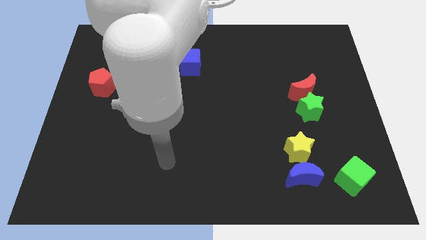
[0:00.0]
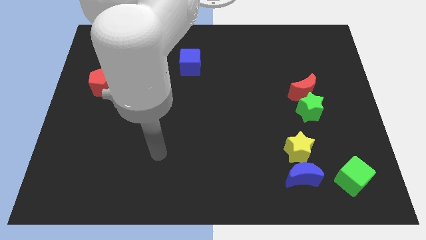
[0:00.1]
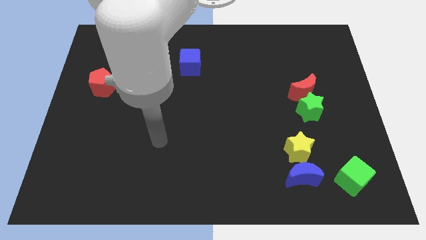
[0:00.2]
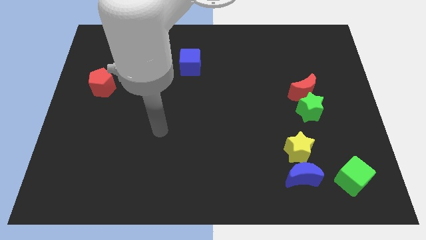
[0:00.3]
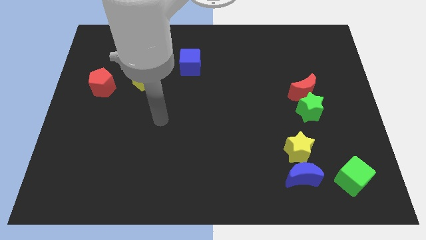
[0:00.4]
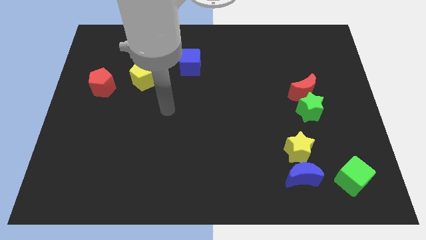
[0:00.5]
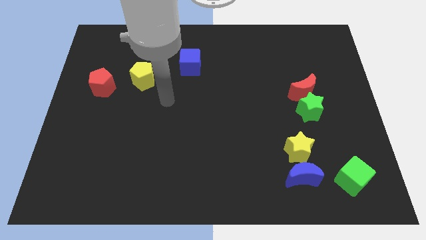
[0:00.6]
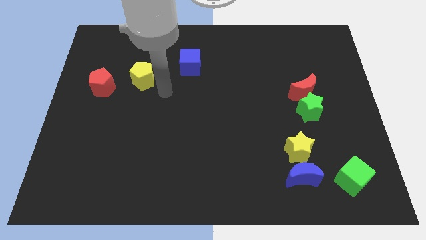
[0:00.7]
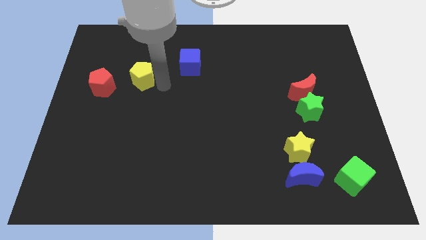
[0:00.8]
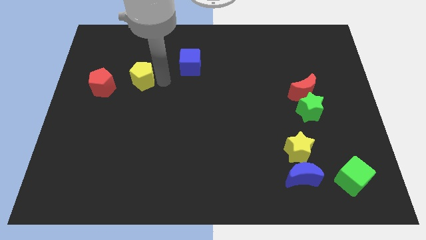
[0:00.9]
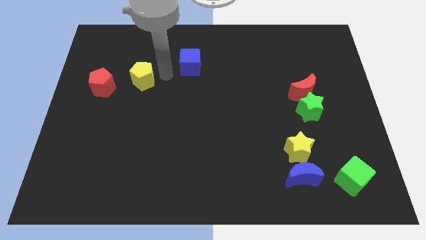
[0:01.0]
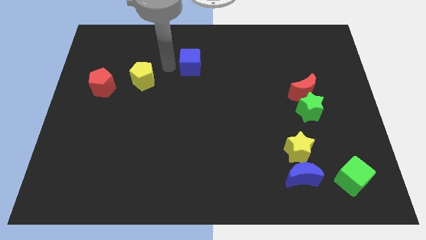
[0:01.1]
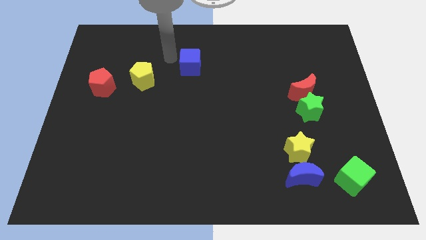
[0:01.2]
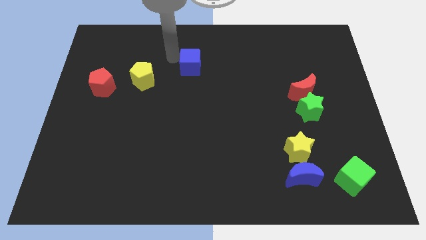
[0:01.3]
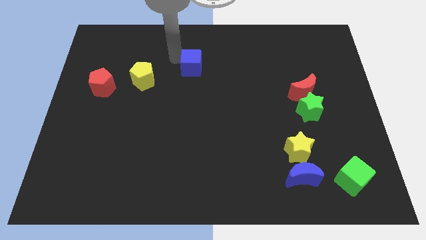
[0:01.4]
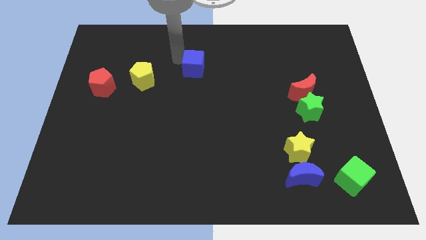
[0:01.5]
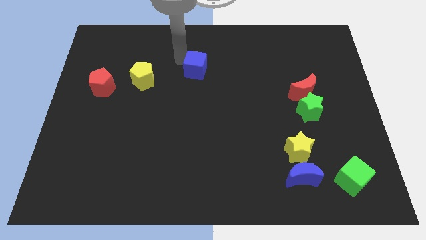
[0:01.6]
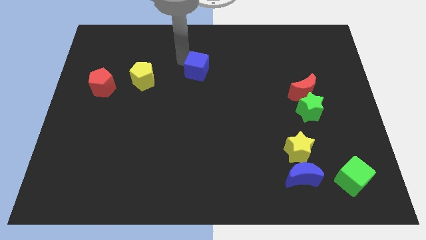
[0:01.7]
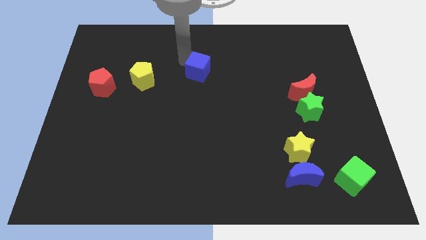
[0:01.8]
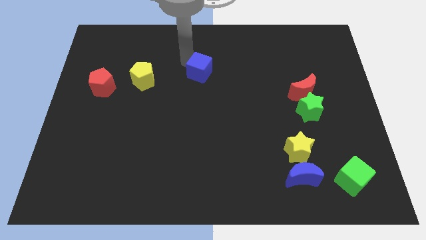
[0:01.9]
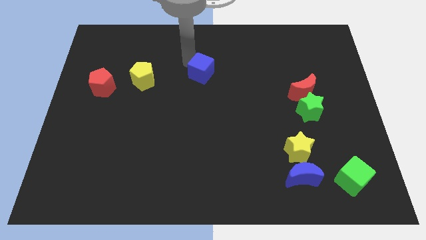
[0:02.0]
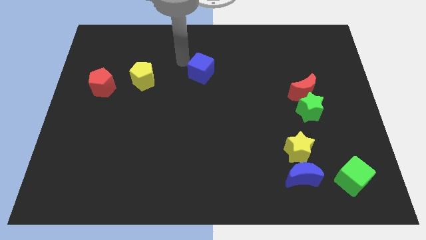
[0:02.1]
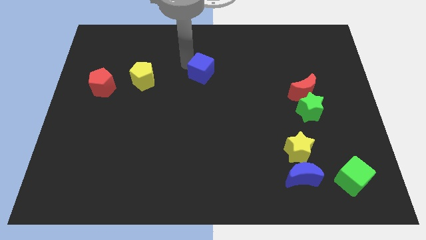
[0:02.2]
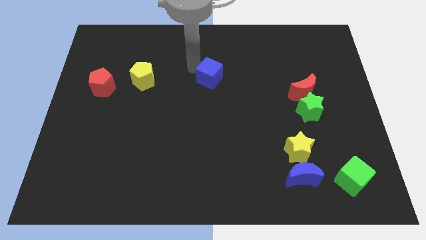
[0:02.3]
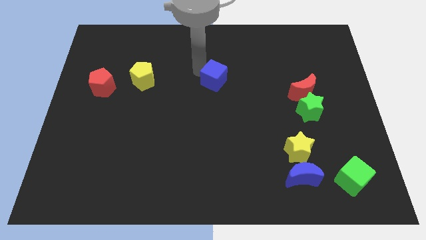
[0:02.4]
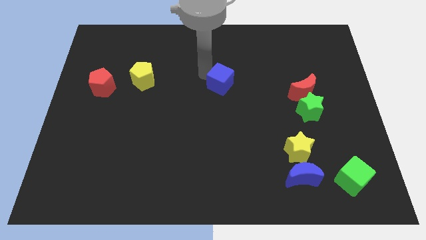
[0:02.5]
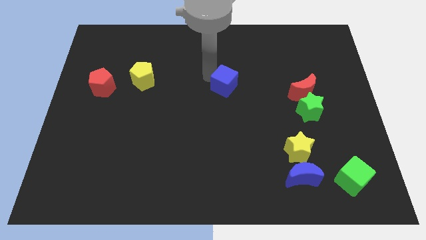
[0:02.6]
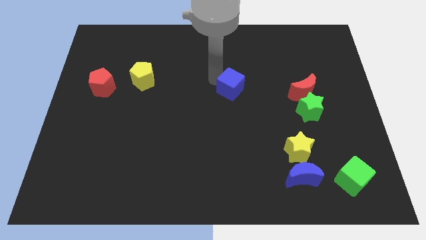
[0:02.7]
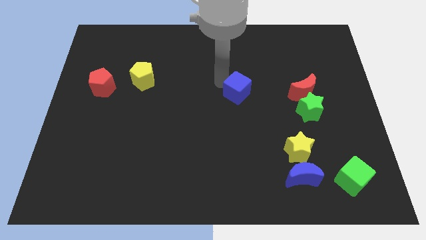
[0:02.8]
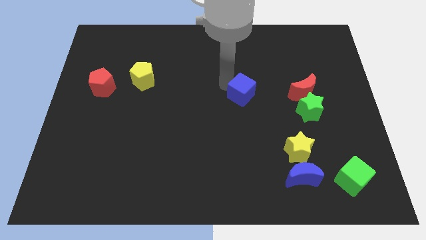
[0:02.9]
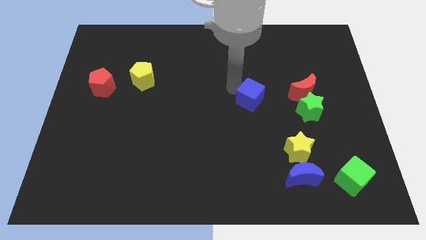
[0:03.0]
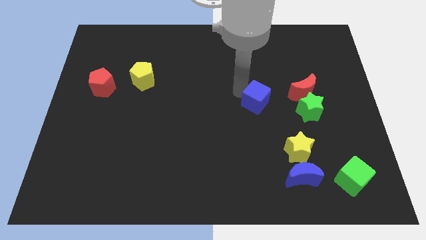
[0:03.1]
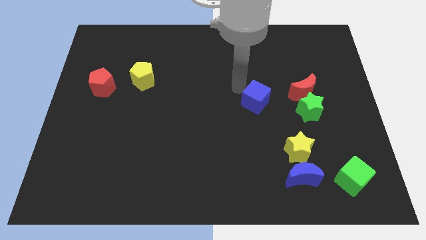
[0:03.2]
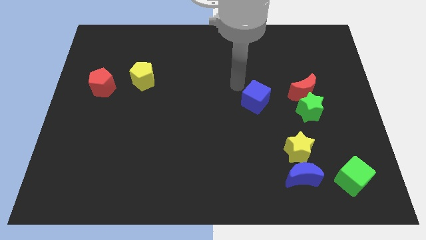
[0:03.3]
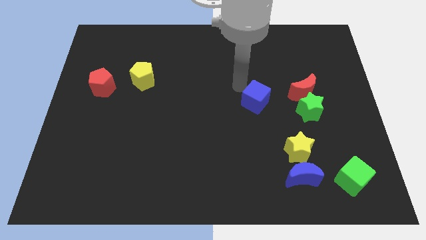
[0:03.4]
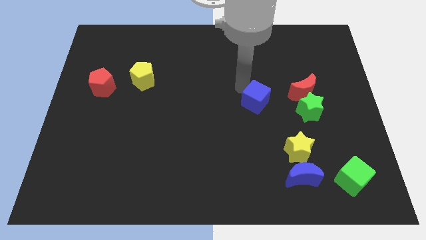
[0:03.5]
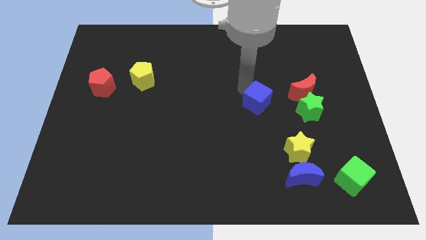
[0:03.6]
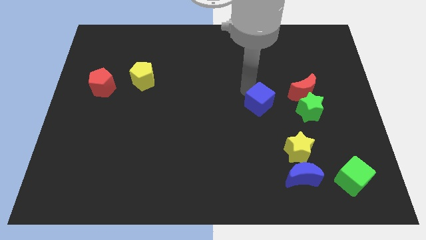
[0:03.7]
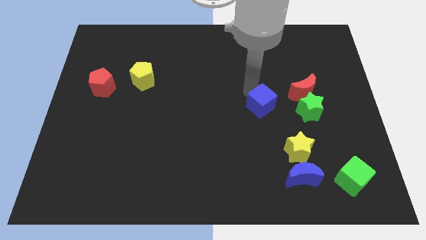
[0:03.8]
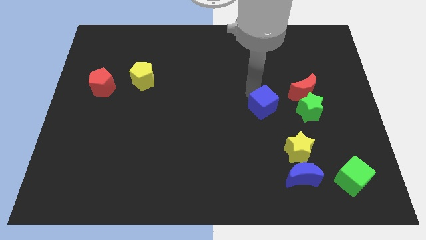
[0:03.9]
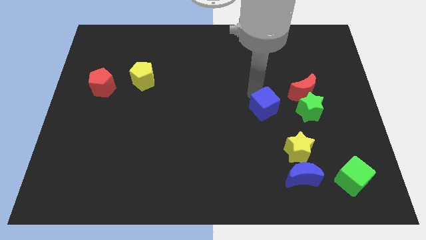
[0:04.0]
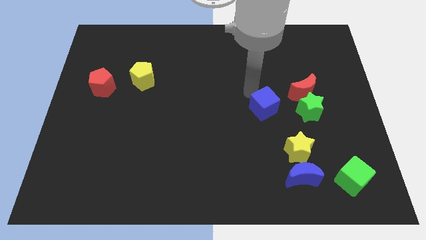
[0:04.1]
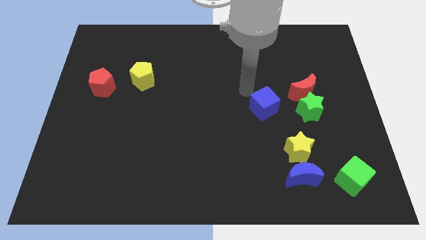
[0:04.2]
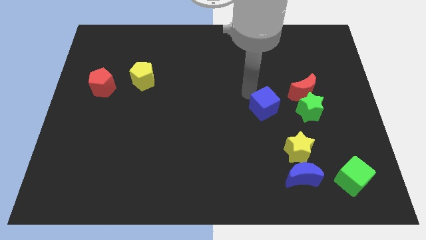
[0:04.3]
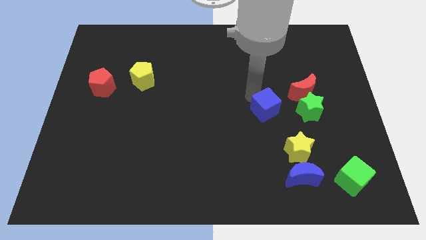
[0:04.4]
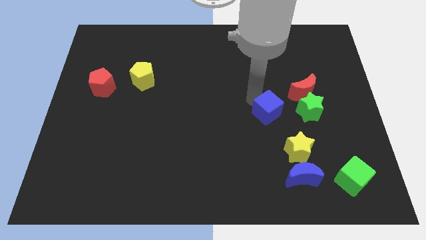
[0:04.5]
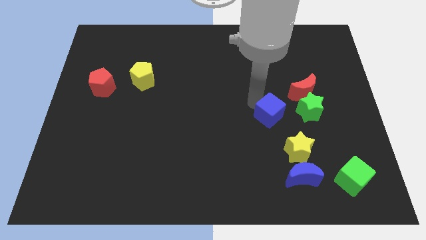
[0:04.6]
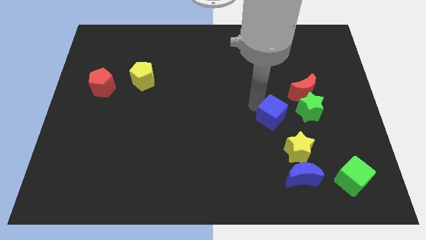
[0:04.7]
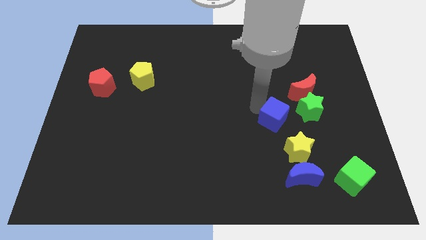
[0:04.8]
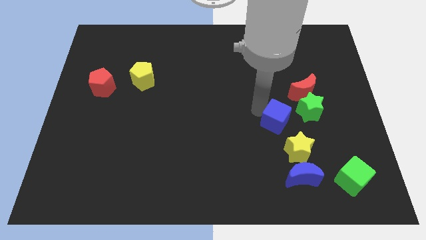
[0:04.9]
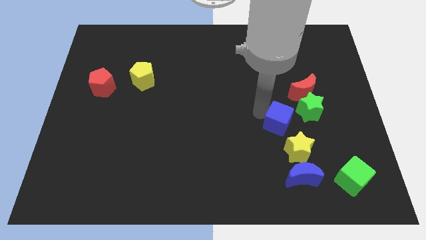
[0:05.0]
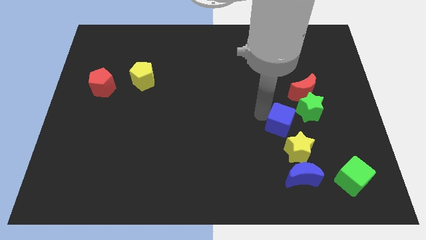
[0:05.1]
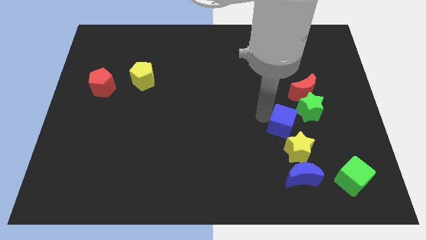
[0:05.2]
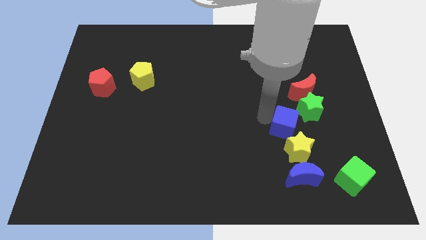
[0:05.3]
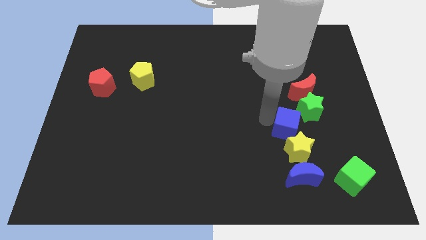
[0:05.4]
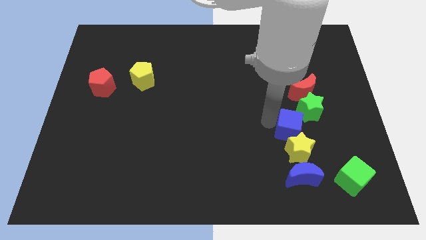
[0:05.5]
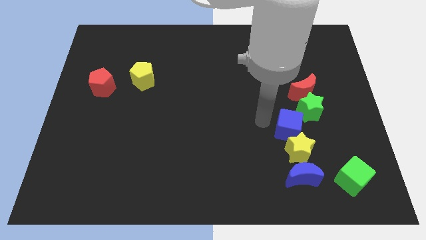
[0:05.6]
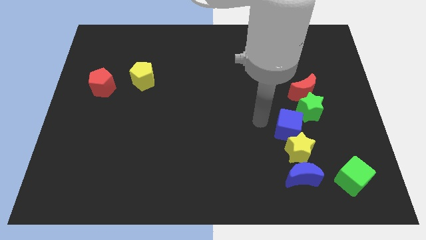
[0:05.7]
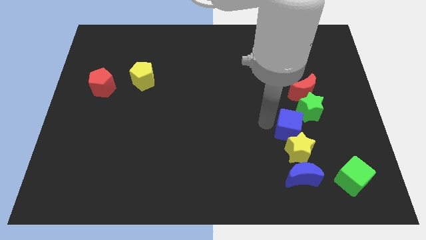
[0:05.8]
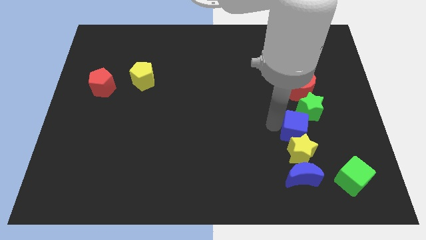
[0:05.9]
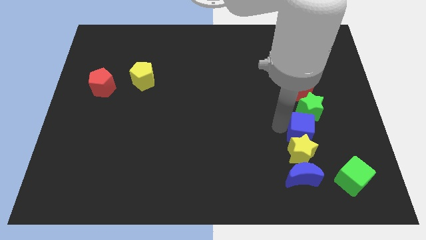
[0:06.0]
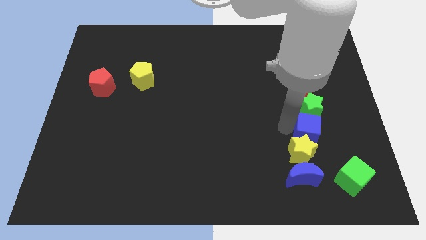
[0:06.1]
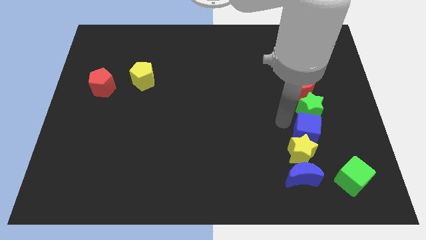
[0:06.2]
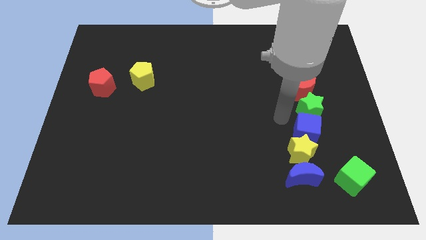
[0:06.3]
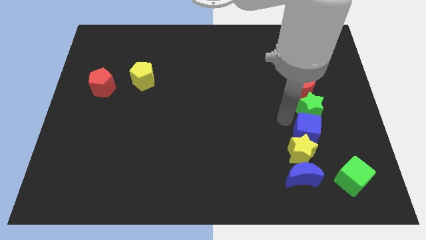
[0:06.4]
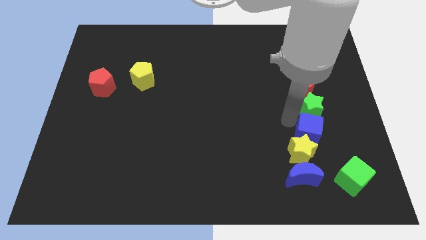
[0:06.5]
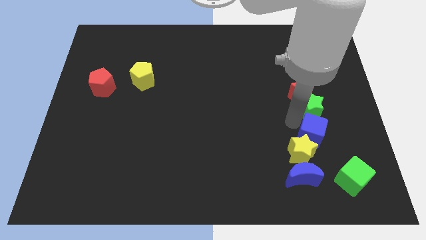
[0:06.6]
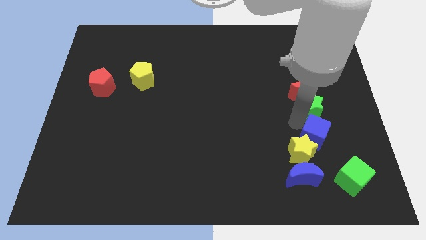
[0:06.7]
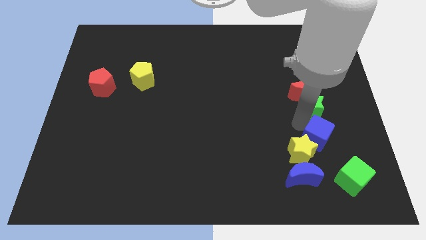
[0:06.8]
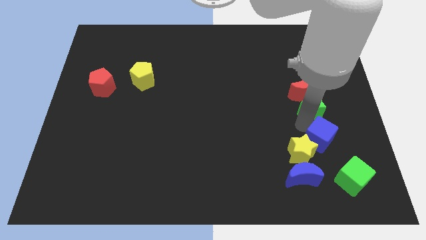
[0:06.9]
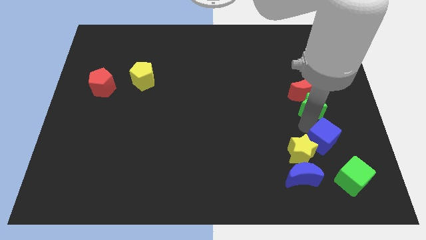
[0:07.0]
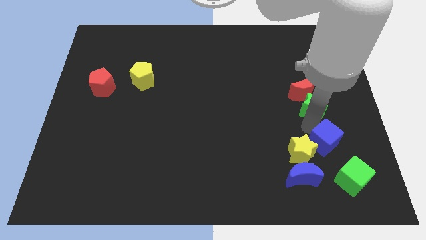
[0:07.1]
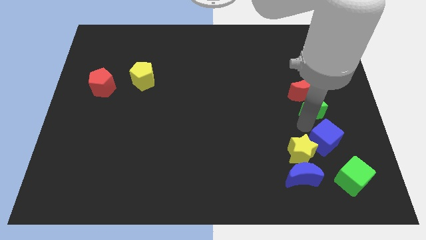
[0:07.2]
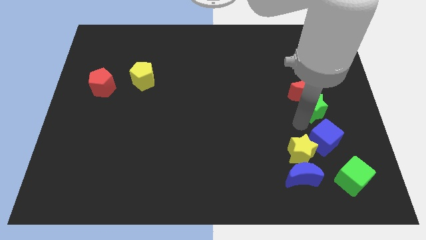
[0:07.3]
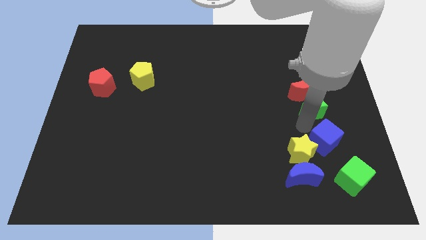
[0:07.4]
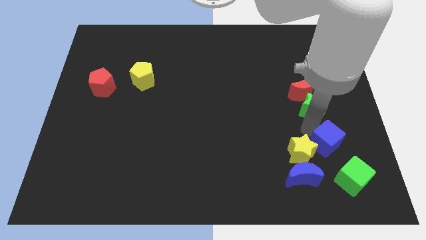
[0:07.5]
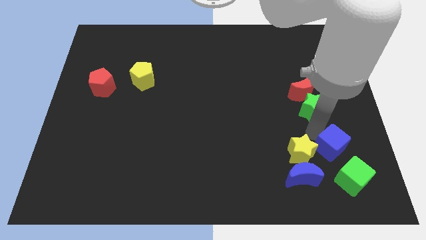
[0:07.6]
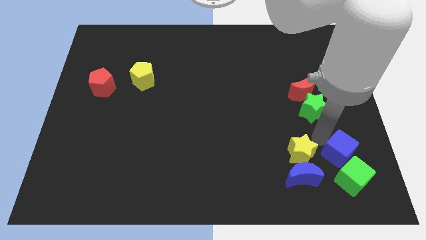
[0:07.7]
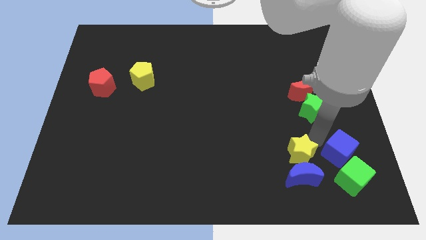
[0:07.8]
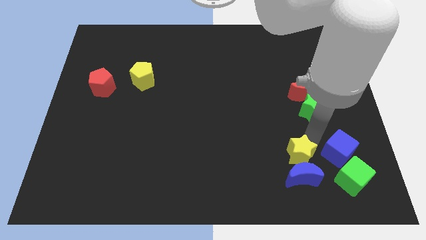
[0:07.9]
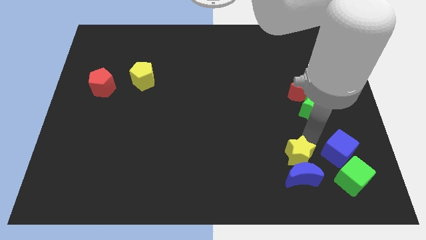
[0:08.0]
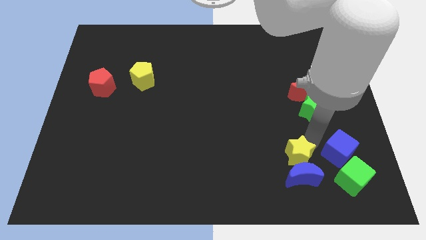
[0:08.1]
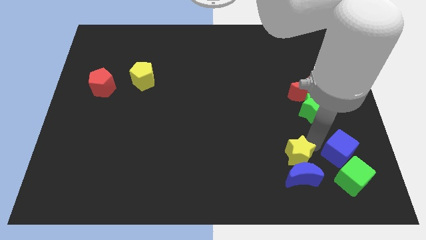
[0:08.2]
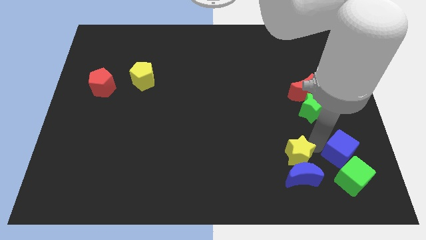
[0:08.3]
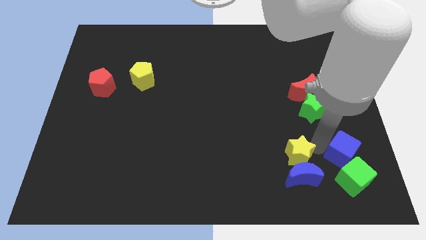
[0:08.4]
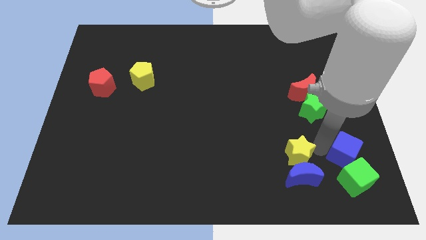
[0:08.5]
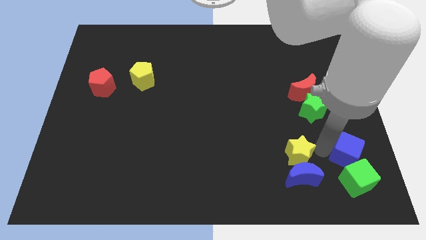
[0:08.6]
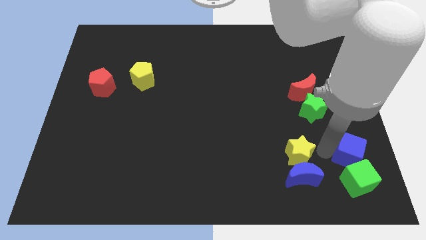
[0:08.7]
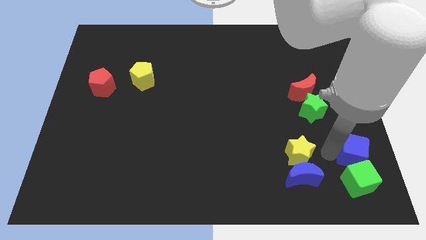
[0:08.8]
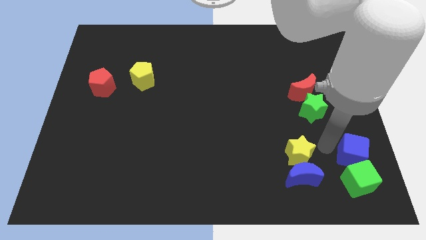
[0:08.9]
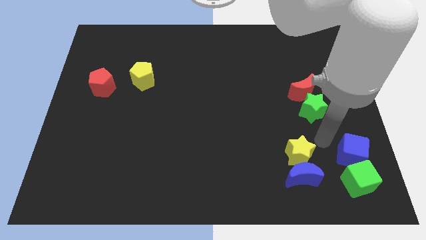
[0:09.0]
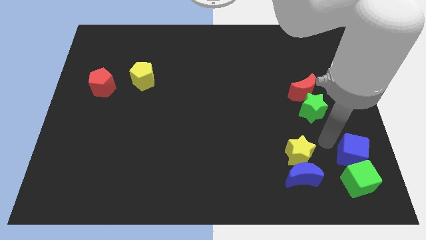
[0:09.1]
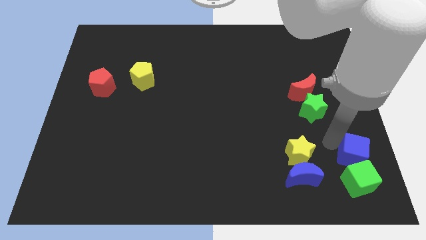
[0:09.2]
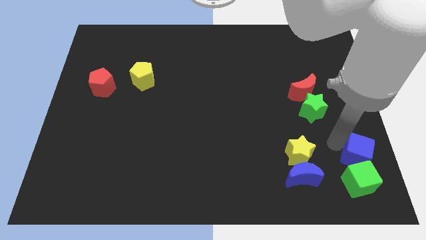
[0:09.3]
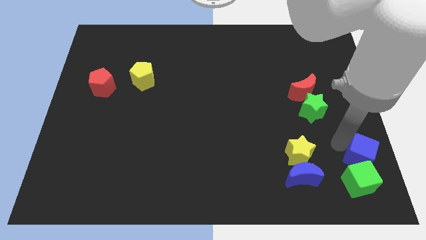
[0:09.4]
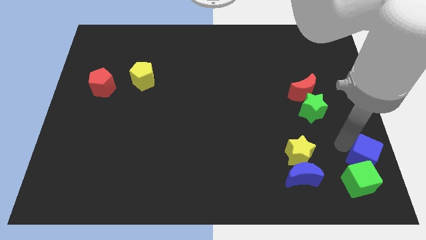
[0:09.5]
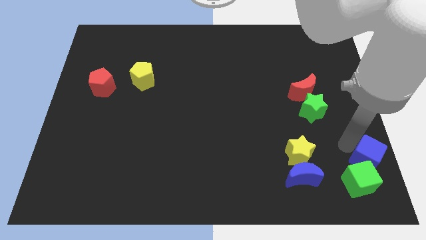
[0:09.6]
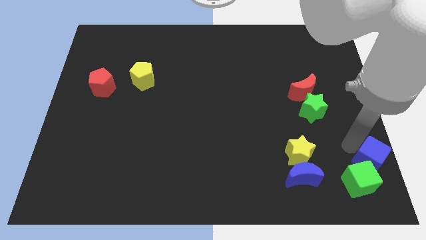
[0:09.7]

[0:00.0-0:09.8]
slide the blue cube to the bottom right corner
